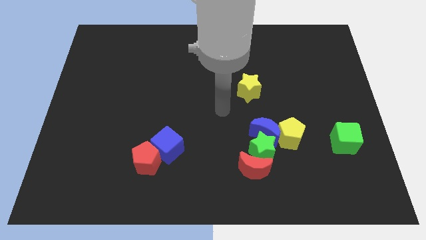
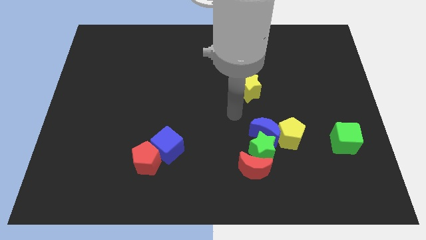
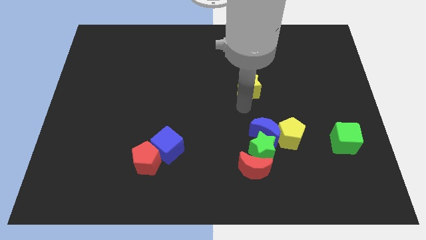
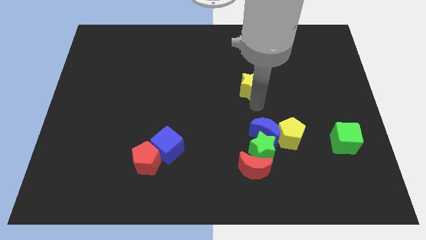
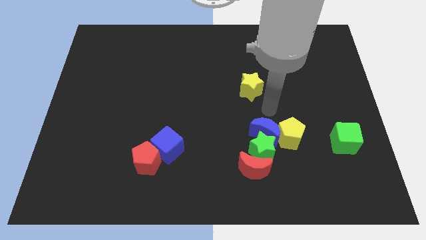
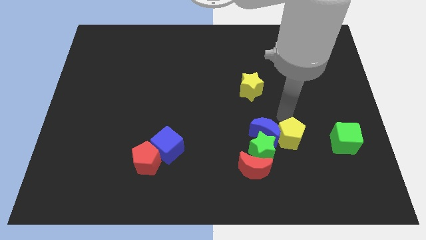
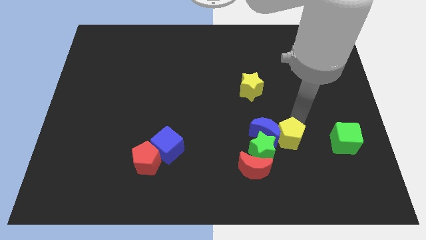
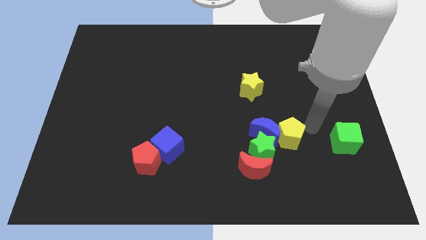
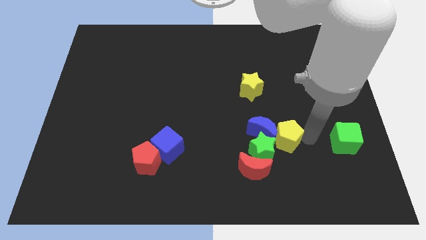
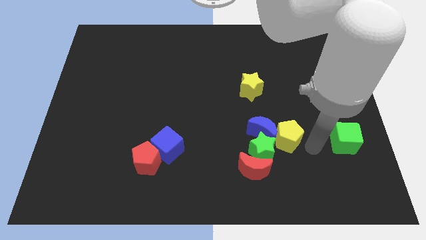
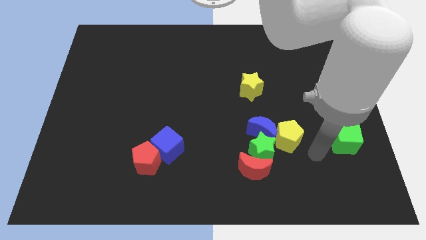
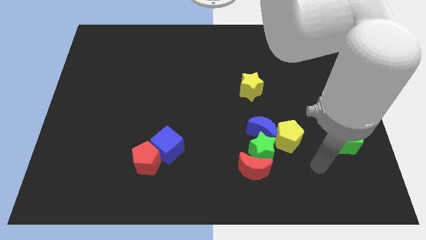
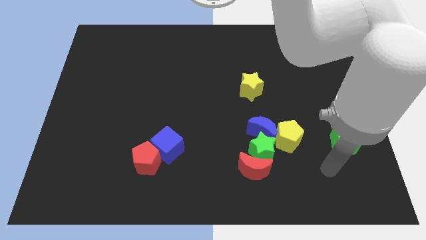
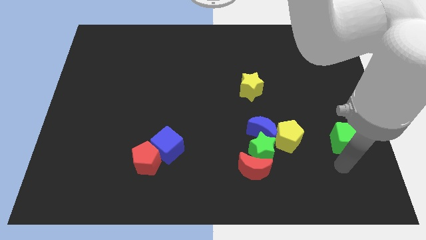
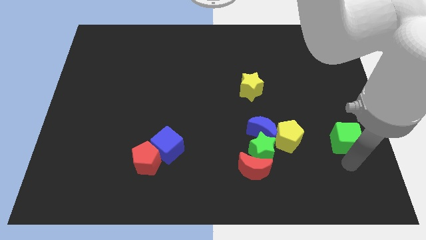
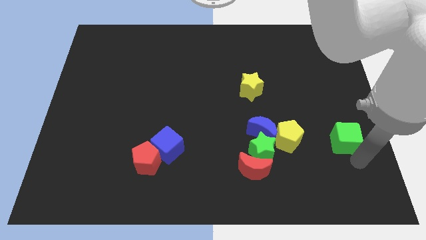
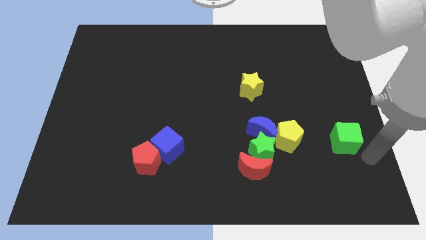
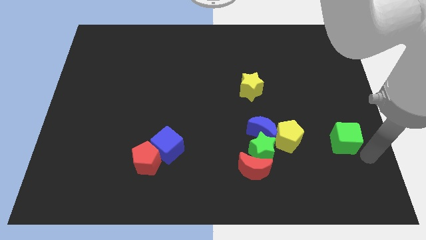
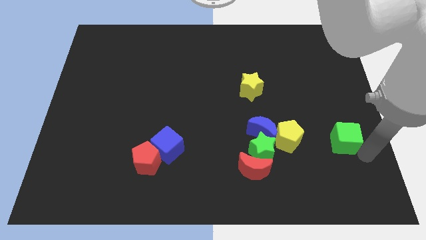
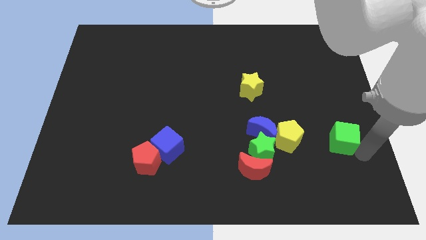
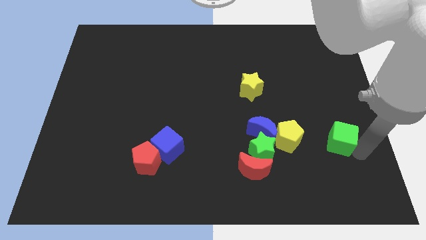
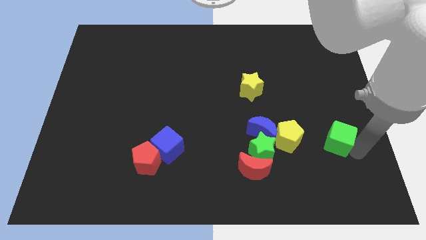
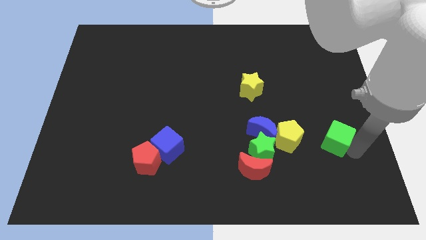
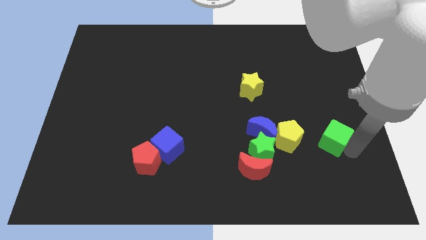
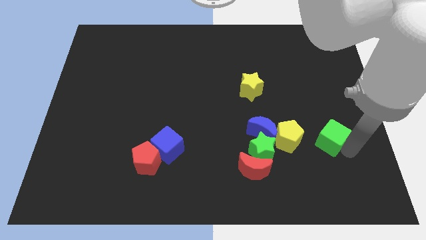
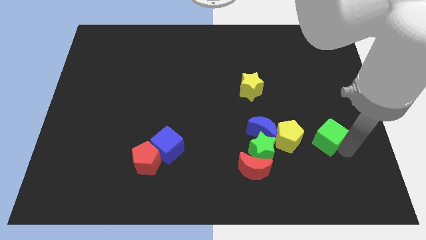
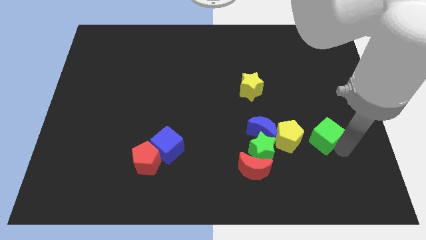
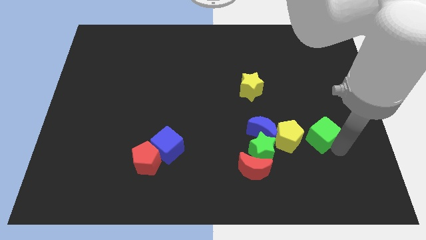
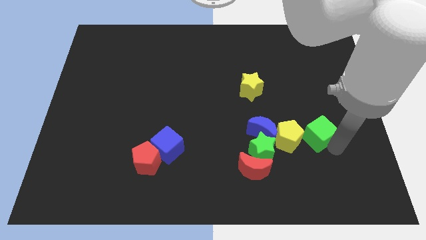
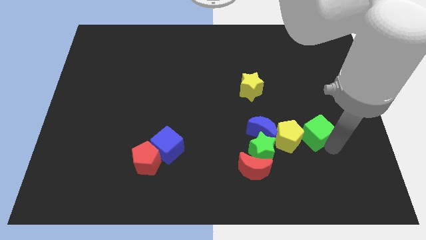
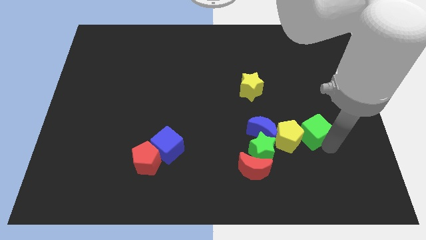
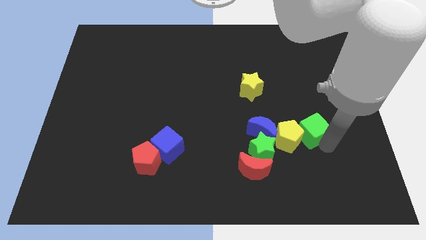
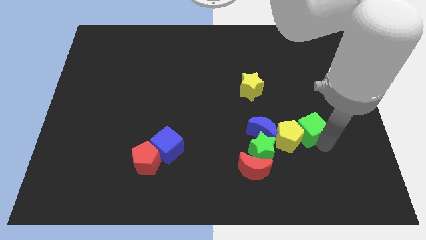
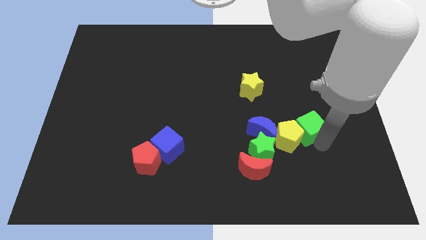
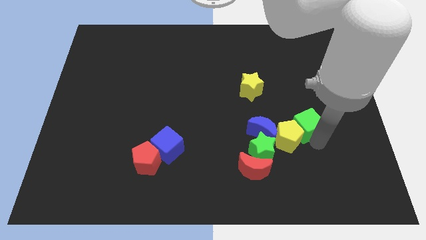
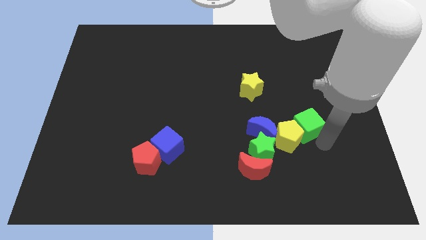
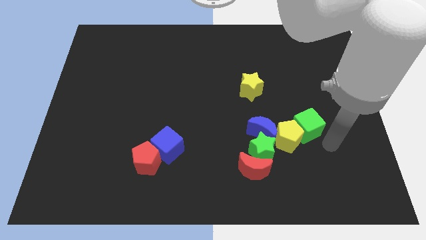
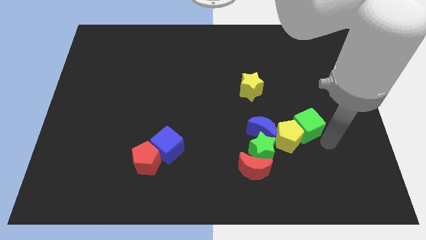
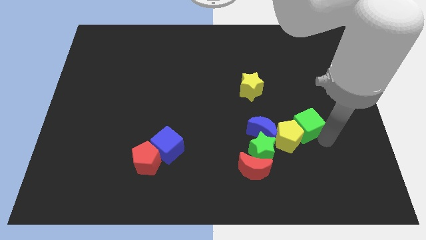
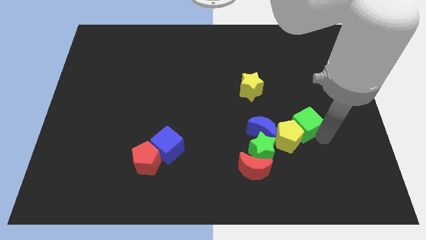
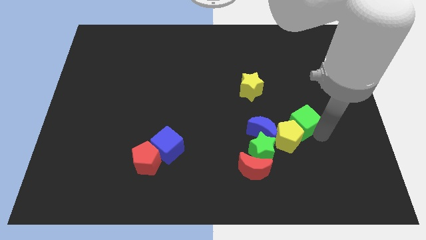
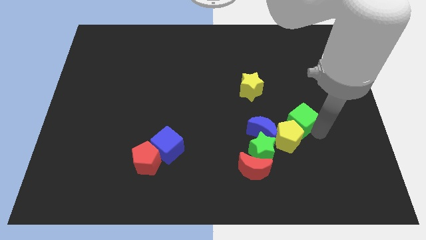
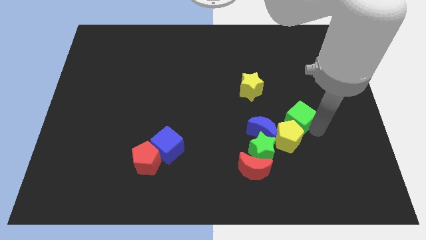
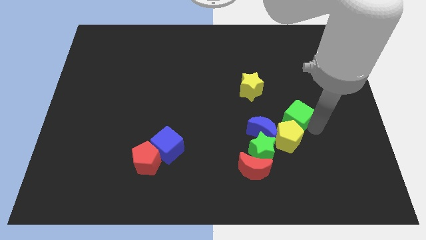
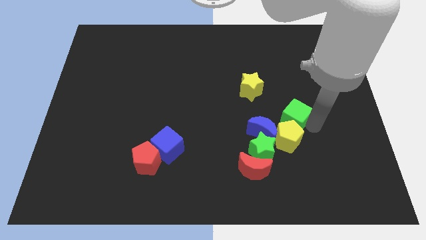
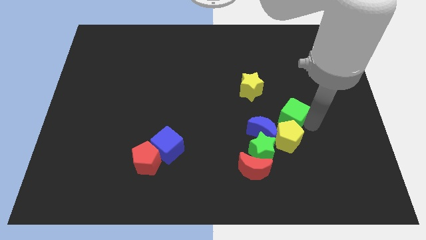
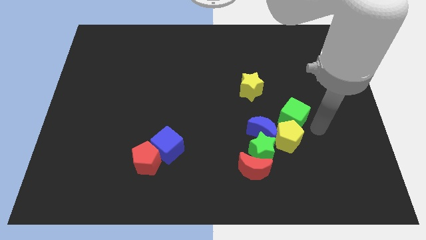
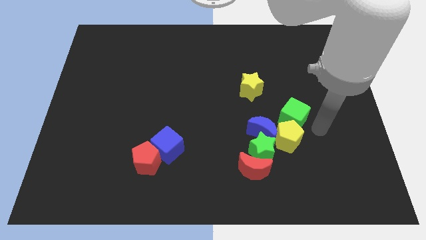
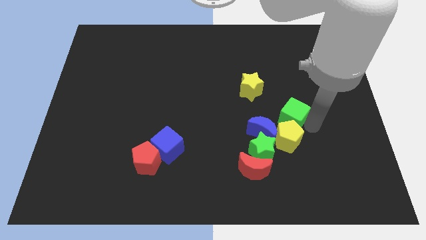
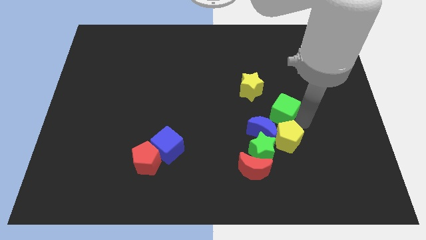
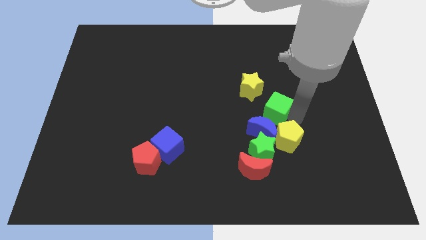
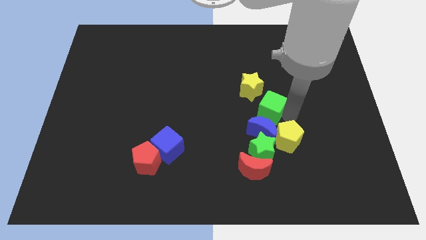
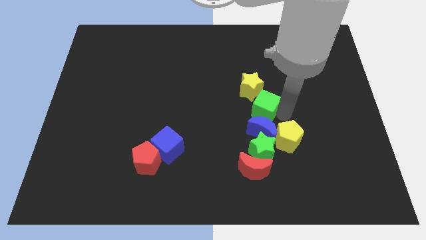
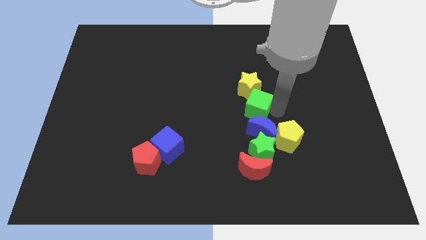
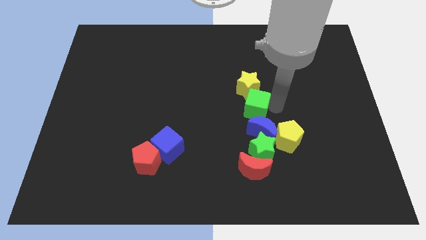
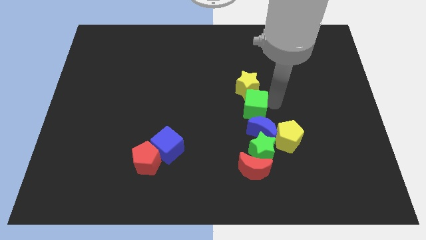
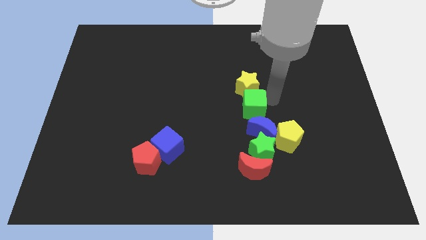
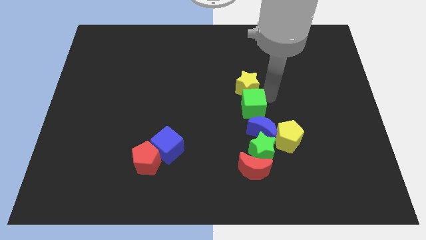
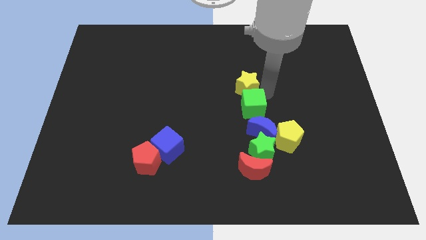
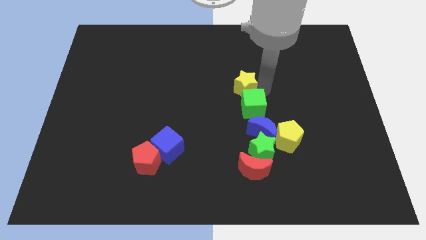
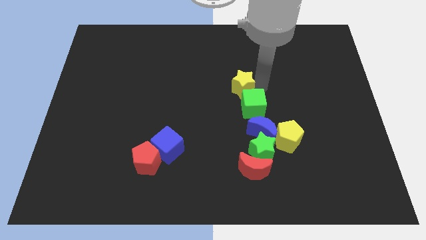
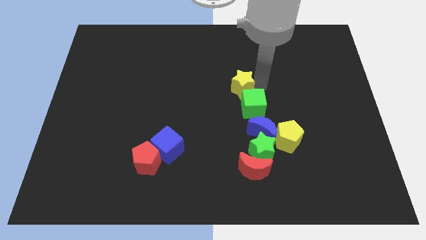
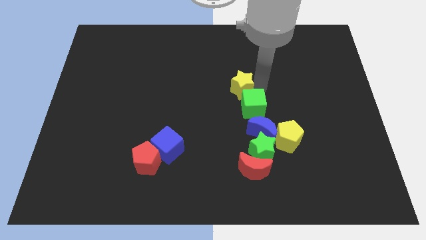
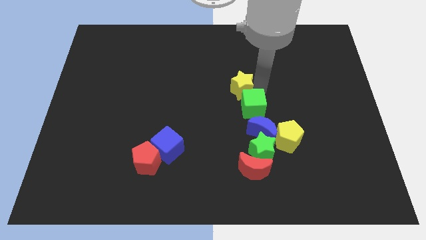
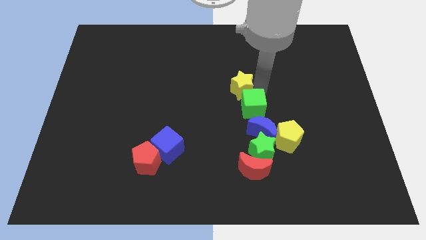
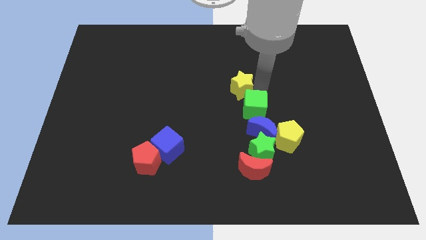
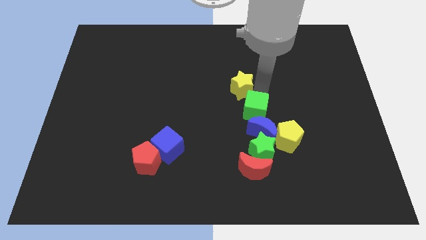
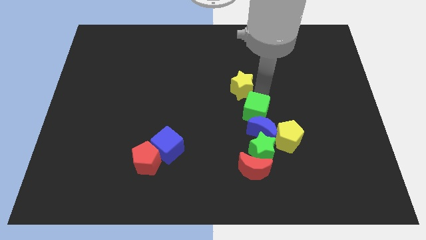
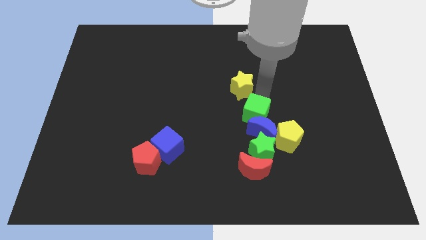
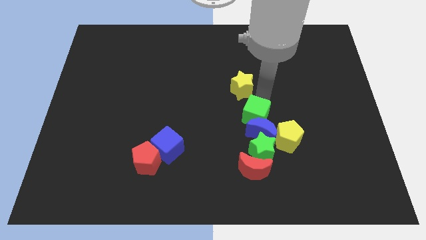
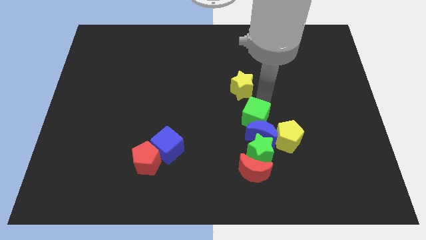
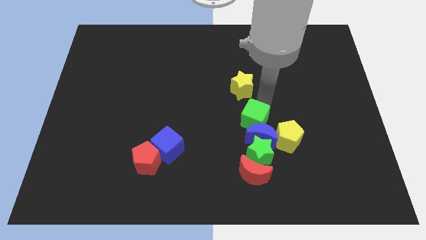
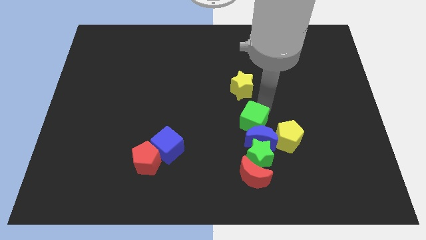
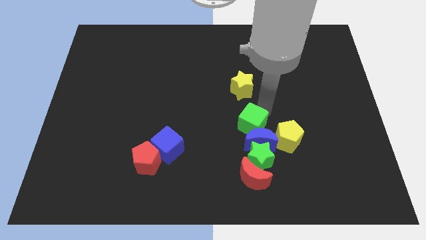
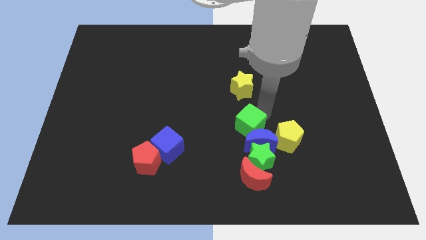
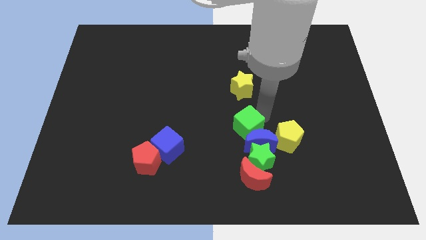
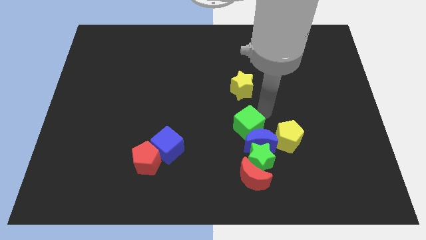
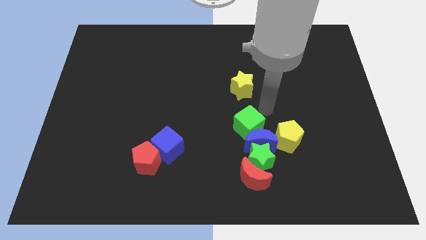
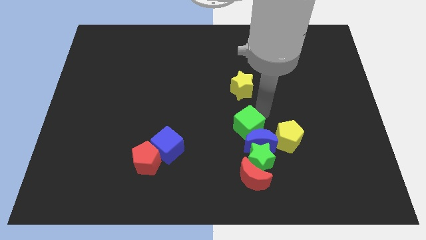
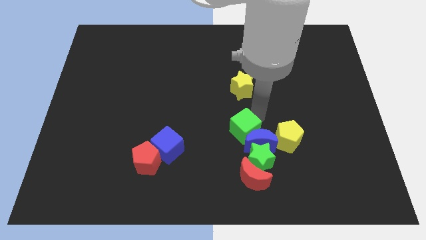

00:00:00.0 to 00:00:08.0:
push the green cube to the top left side of the green star
